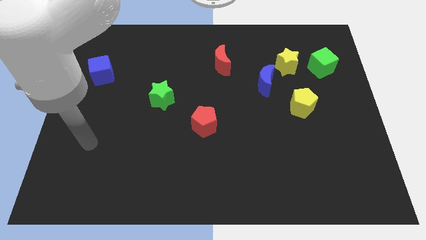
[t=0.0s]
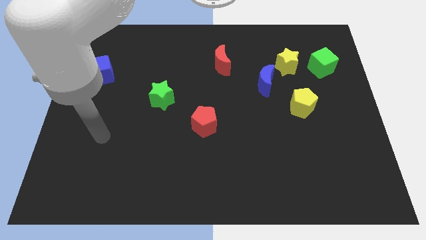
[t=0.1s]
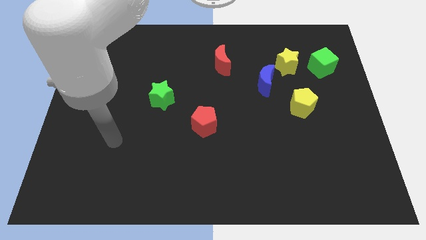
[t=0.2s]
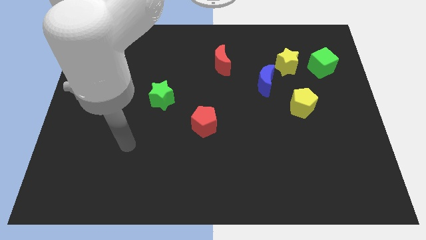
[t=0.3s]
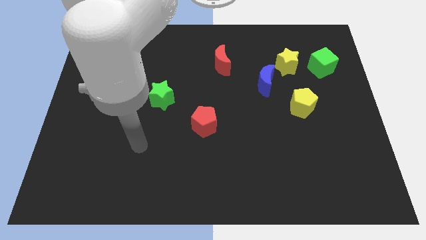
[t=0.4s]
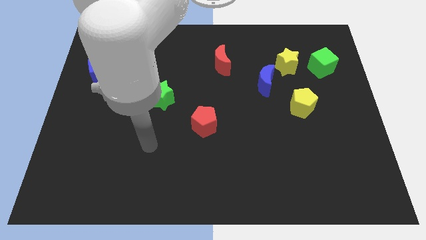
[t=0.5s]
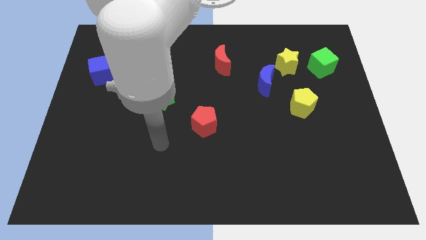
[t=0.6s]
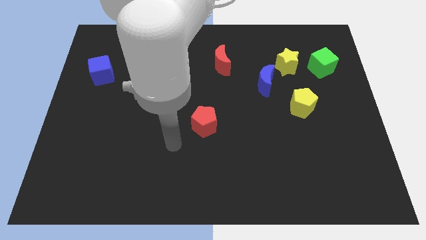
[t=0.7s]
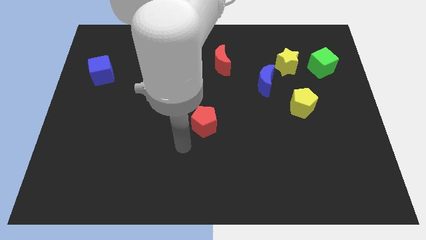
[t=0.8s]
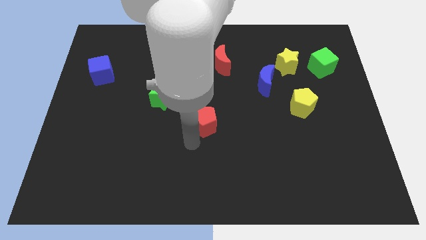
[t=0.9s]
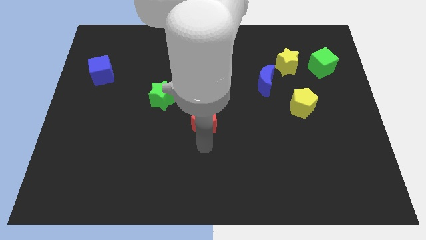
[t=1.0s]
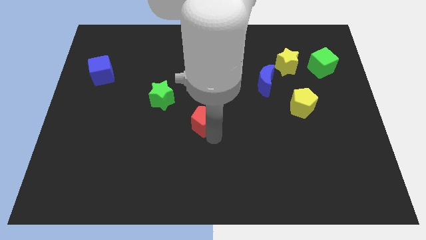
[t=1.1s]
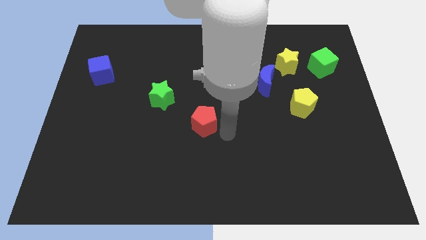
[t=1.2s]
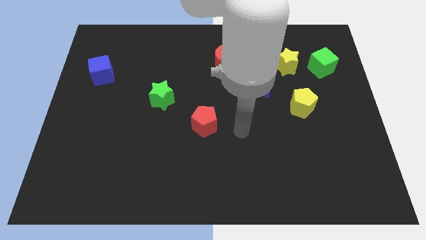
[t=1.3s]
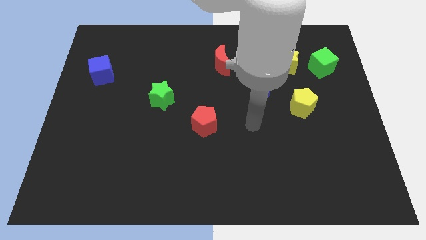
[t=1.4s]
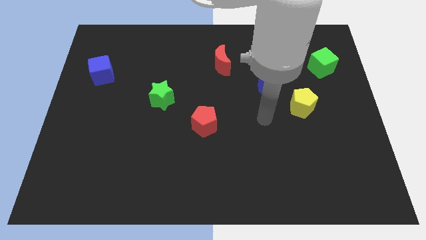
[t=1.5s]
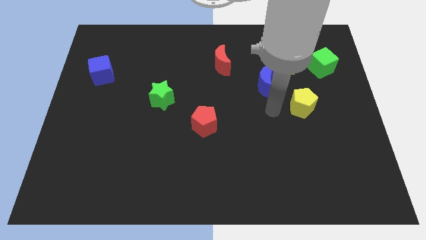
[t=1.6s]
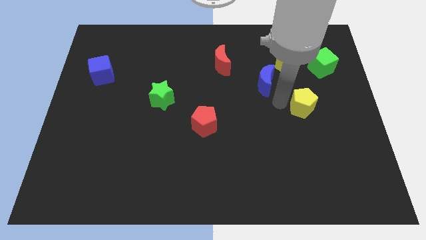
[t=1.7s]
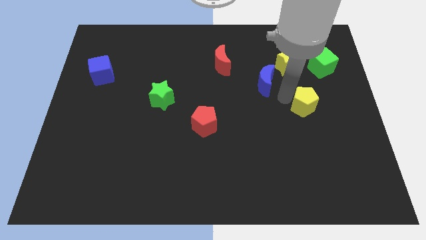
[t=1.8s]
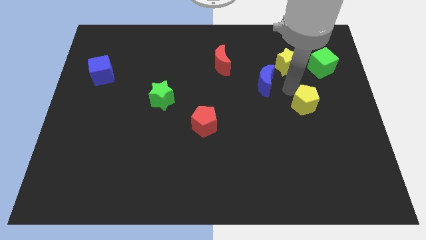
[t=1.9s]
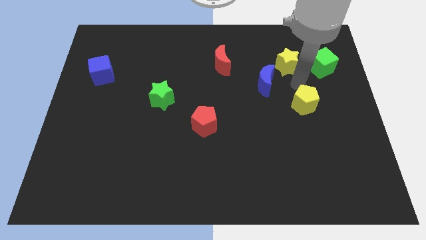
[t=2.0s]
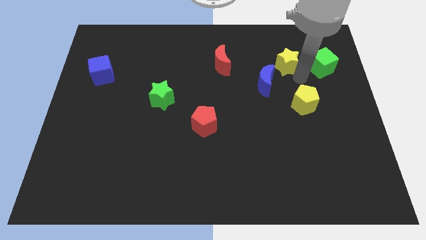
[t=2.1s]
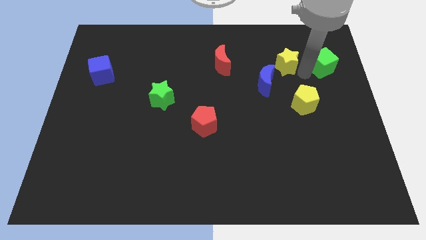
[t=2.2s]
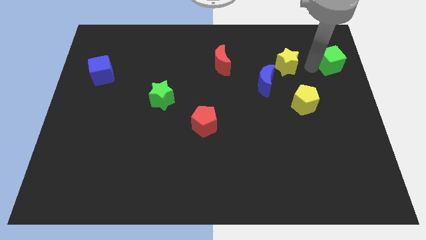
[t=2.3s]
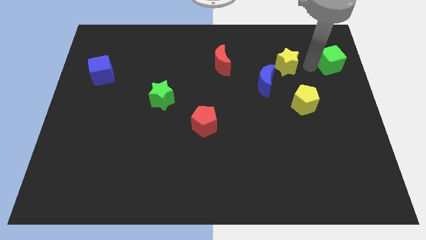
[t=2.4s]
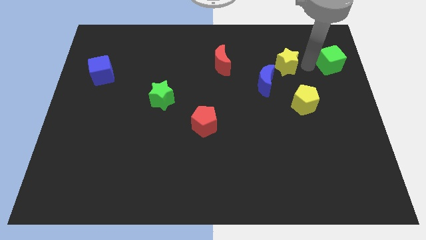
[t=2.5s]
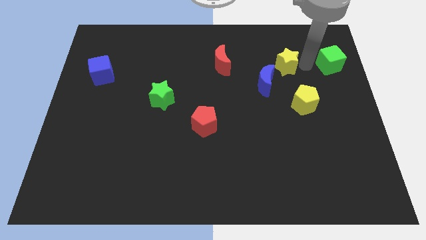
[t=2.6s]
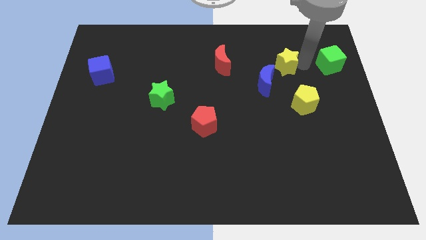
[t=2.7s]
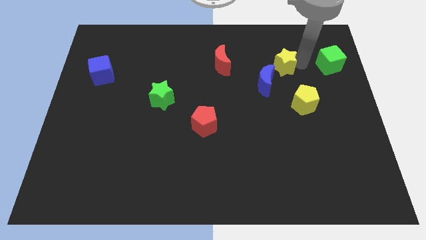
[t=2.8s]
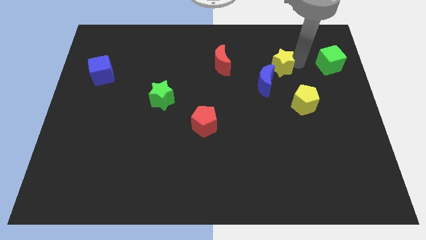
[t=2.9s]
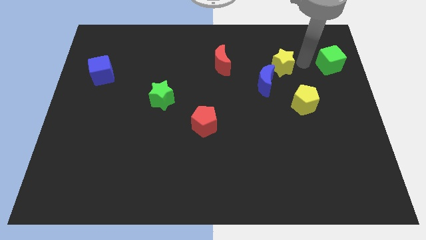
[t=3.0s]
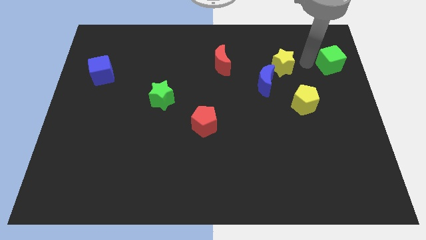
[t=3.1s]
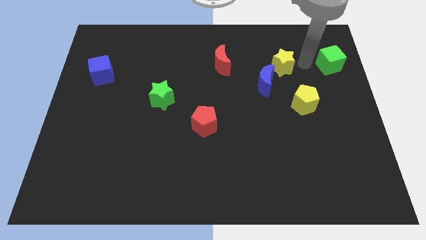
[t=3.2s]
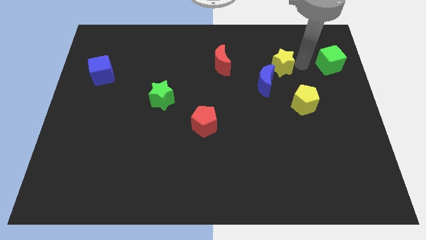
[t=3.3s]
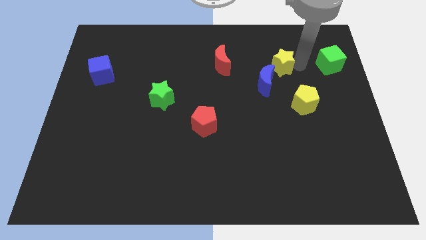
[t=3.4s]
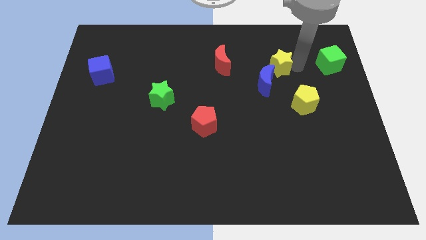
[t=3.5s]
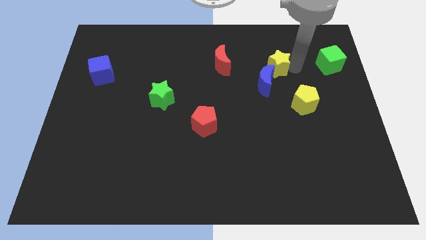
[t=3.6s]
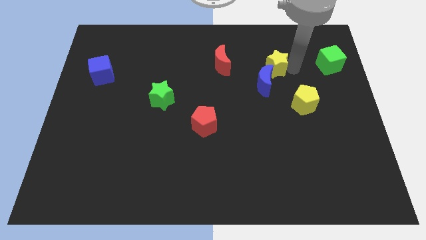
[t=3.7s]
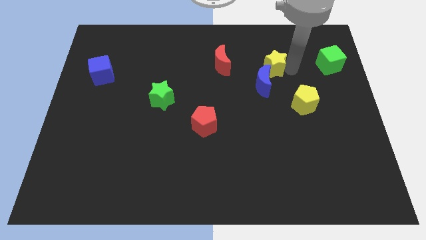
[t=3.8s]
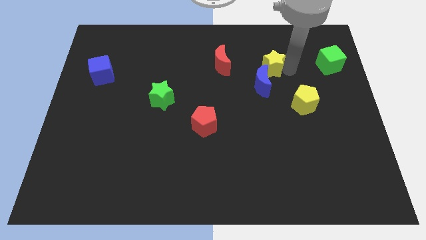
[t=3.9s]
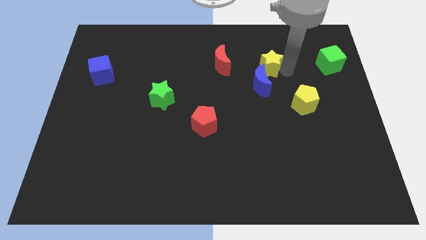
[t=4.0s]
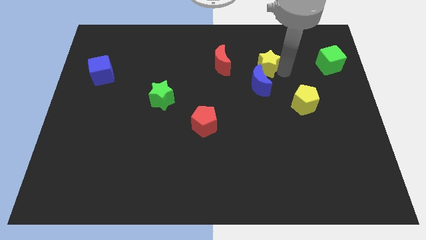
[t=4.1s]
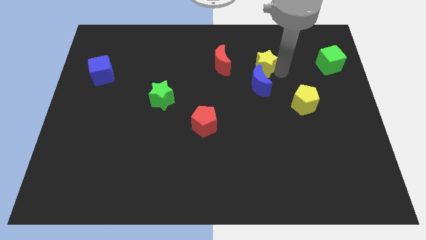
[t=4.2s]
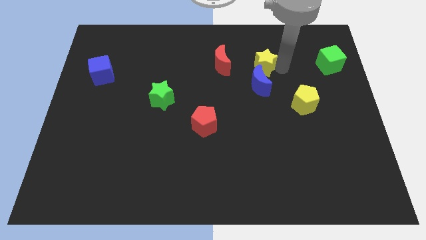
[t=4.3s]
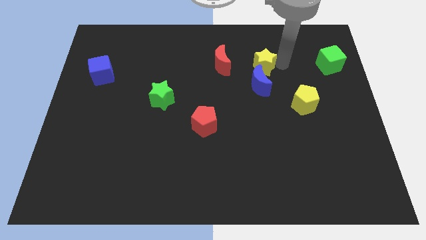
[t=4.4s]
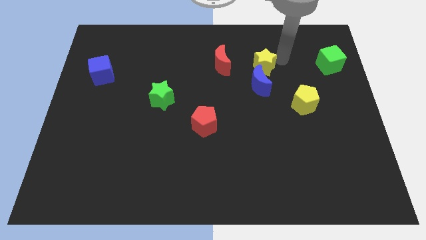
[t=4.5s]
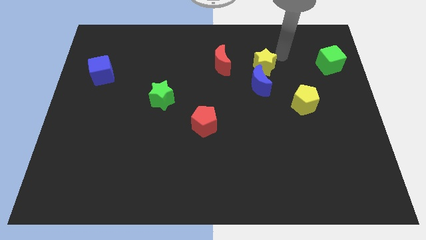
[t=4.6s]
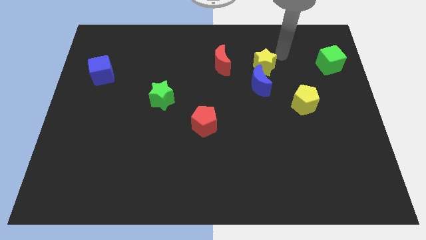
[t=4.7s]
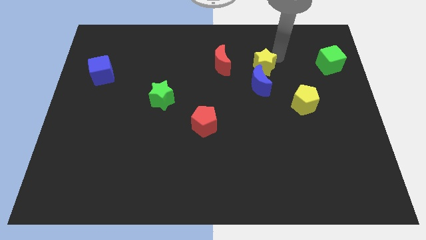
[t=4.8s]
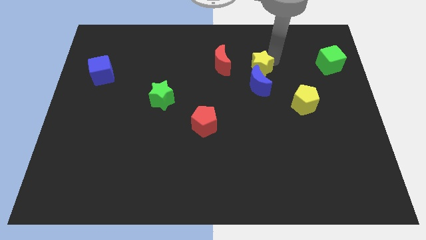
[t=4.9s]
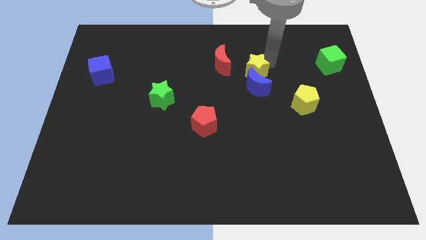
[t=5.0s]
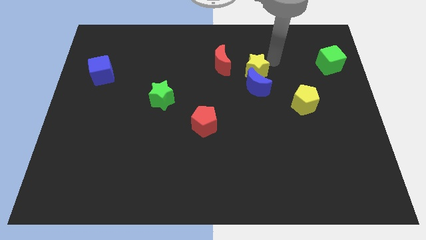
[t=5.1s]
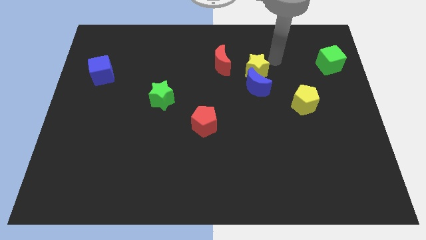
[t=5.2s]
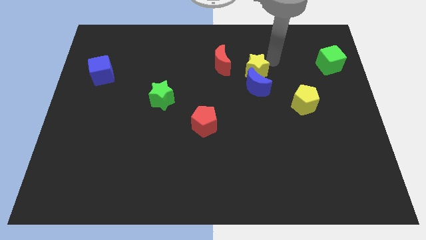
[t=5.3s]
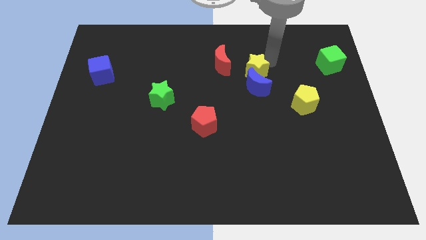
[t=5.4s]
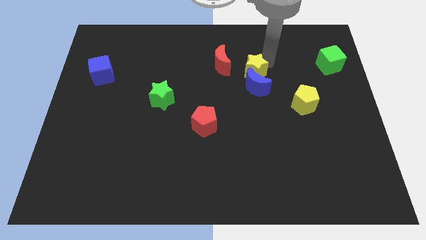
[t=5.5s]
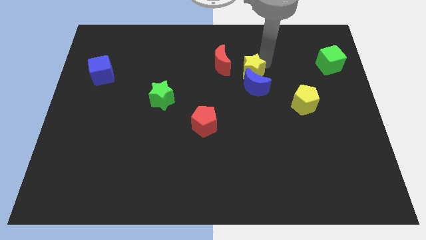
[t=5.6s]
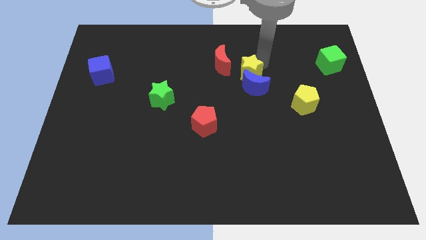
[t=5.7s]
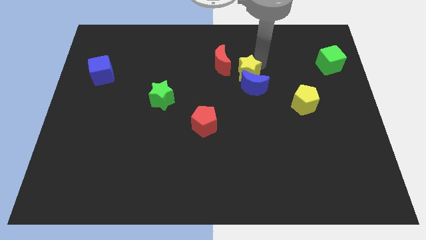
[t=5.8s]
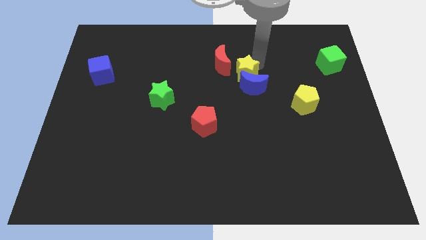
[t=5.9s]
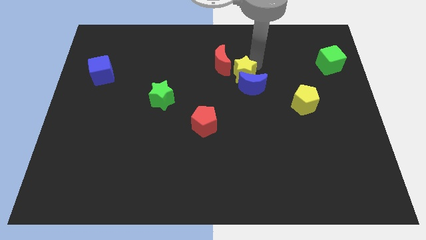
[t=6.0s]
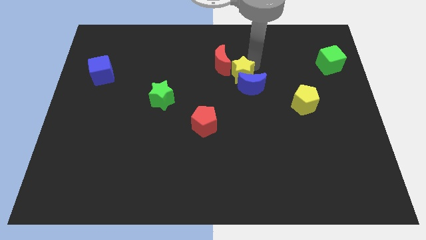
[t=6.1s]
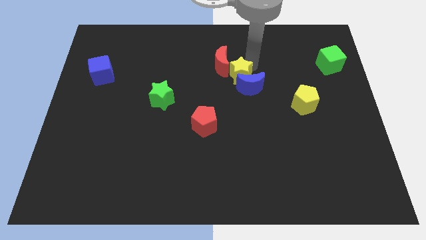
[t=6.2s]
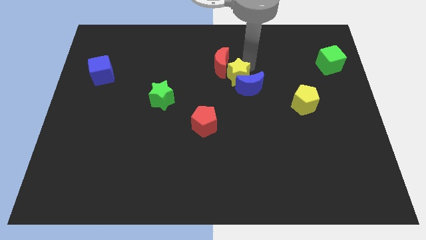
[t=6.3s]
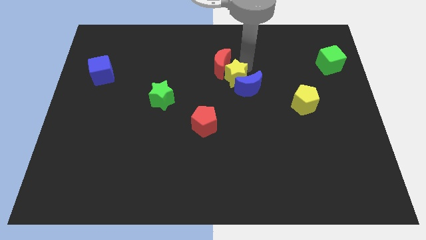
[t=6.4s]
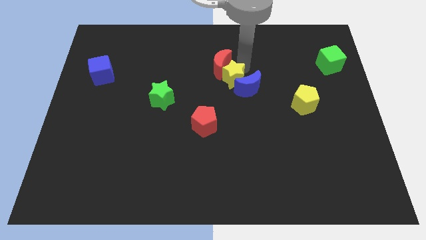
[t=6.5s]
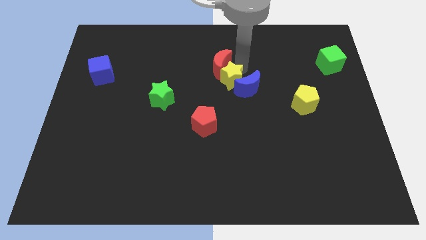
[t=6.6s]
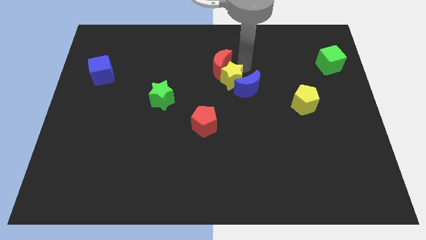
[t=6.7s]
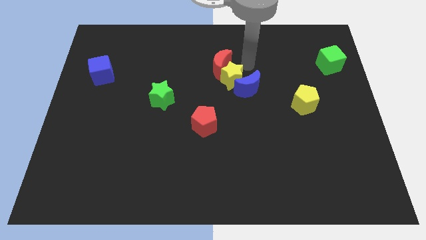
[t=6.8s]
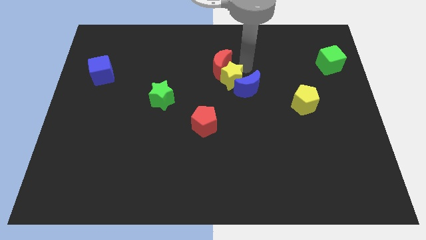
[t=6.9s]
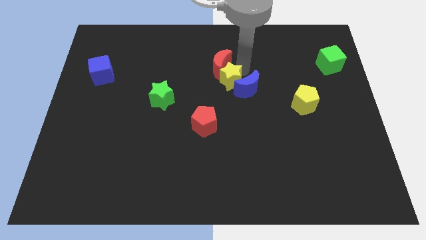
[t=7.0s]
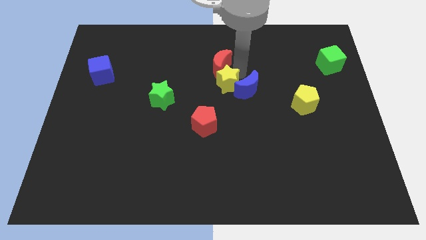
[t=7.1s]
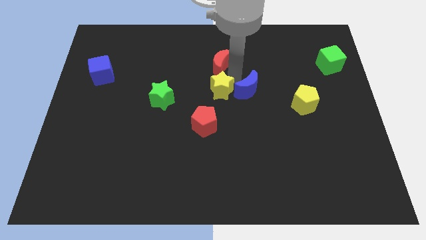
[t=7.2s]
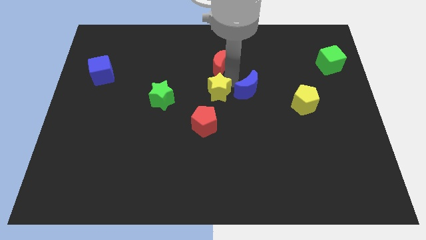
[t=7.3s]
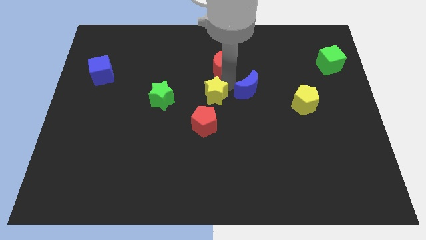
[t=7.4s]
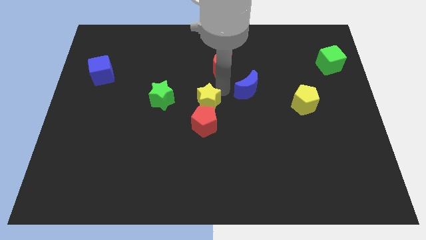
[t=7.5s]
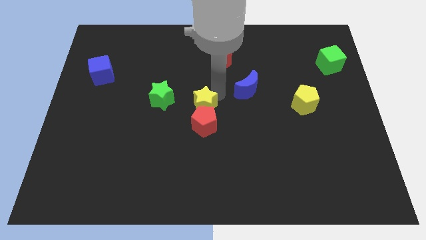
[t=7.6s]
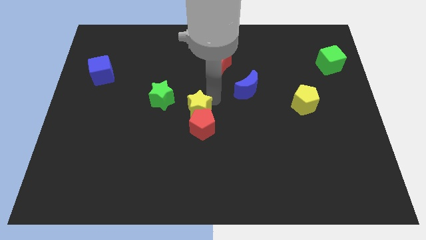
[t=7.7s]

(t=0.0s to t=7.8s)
slide the yellow star to the bottom right of the green star
